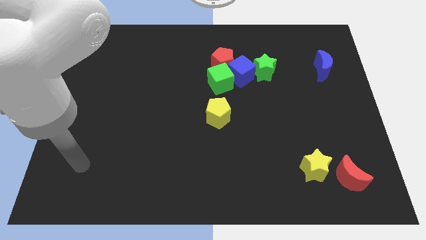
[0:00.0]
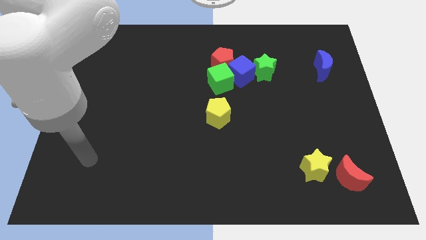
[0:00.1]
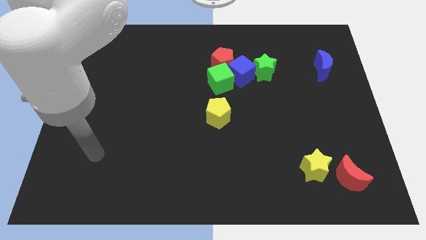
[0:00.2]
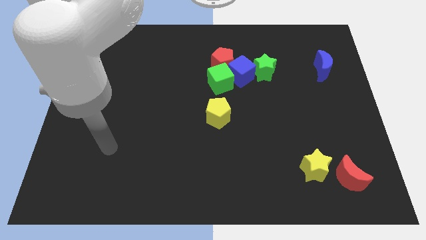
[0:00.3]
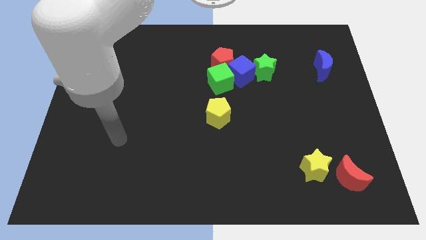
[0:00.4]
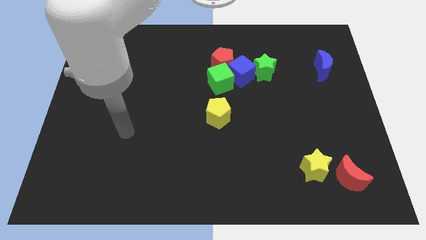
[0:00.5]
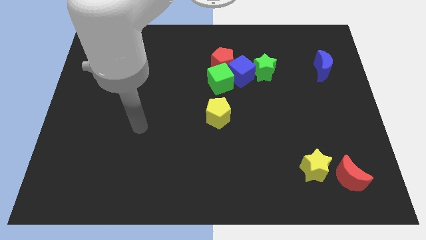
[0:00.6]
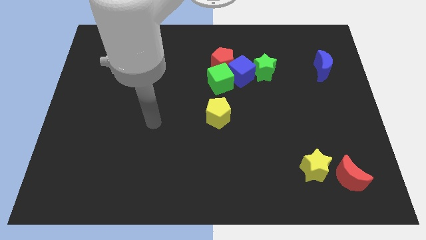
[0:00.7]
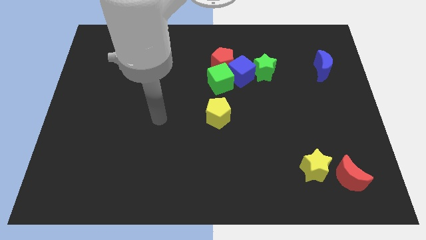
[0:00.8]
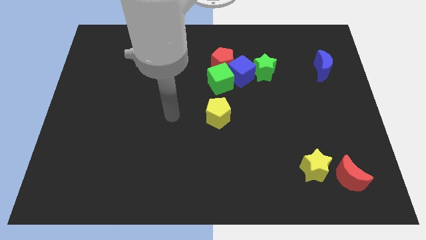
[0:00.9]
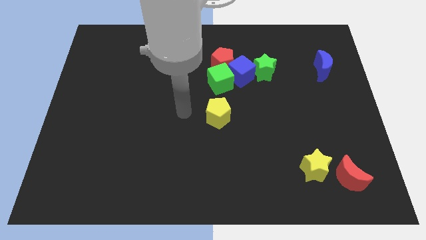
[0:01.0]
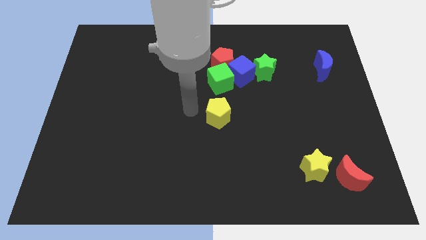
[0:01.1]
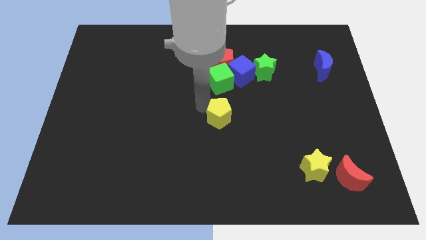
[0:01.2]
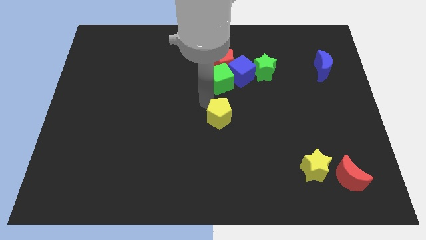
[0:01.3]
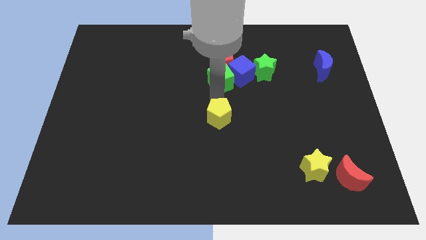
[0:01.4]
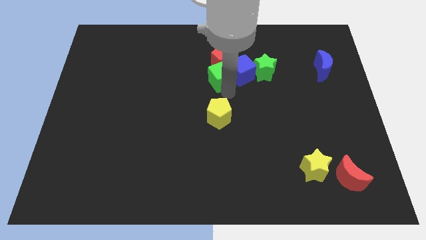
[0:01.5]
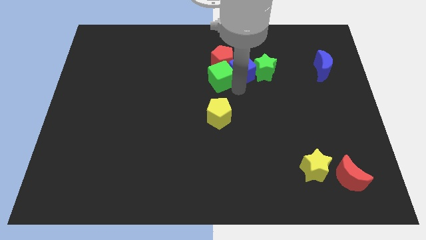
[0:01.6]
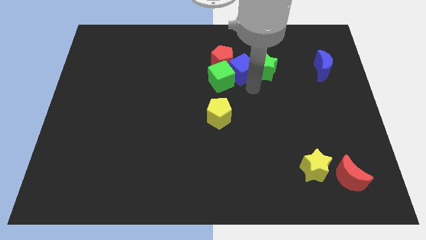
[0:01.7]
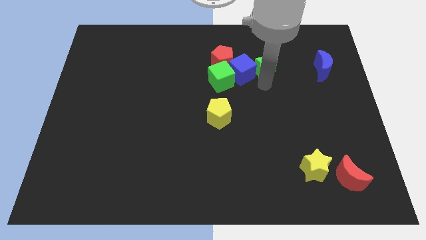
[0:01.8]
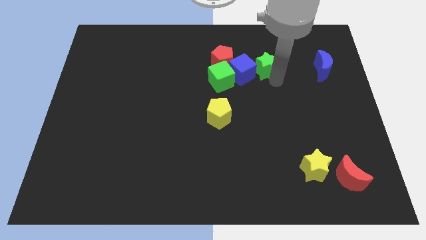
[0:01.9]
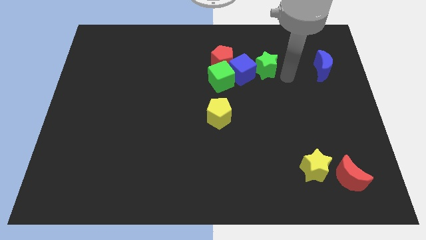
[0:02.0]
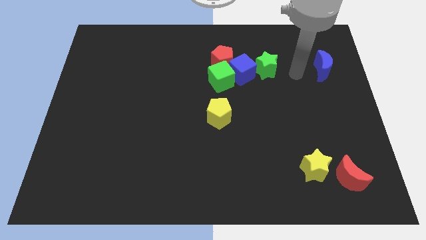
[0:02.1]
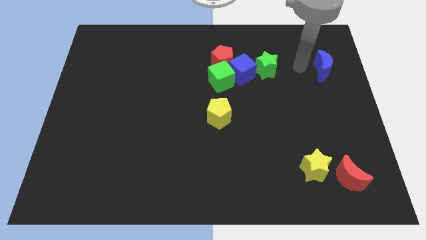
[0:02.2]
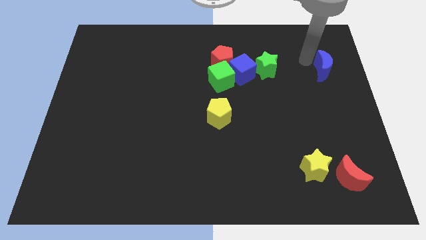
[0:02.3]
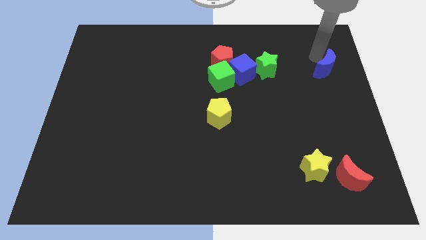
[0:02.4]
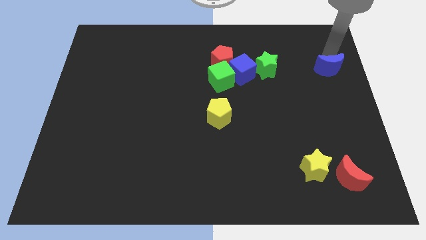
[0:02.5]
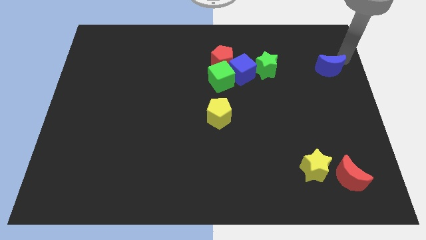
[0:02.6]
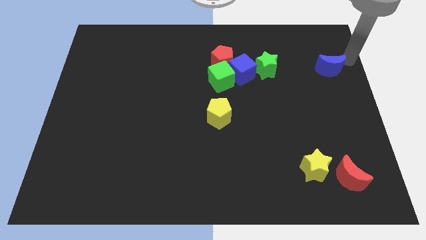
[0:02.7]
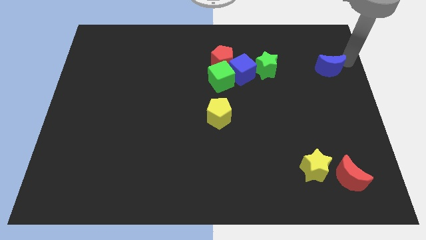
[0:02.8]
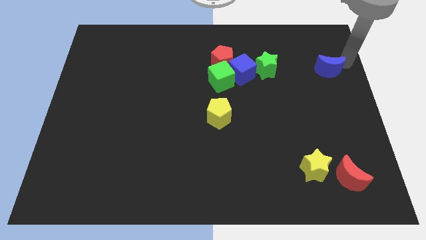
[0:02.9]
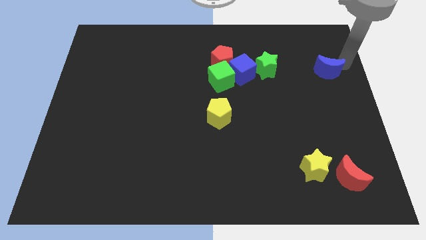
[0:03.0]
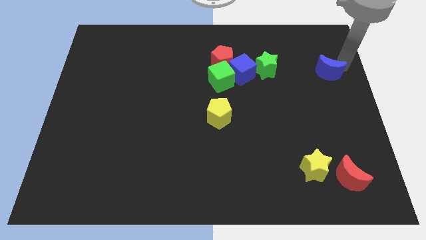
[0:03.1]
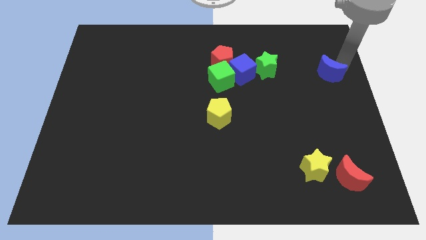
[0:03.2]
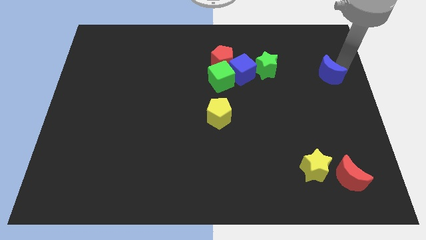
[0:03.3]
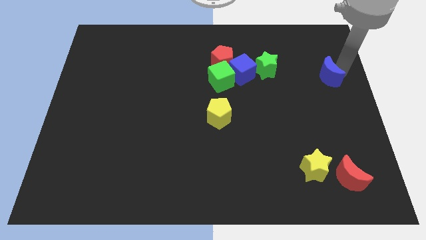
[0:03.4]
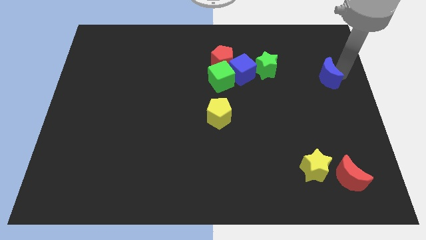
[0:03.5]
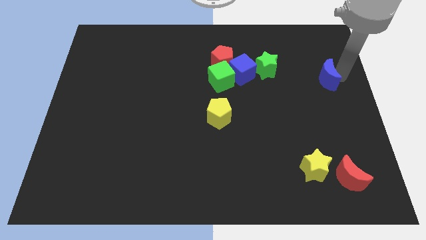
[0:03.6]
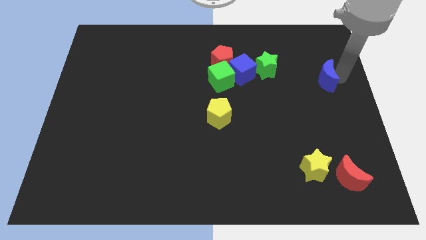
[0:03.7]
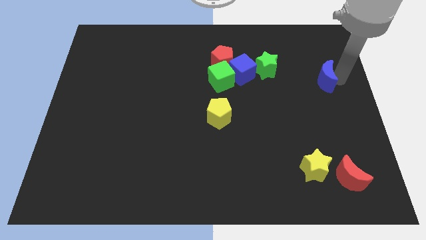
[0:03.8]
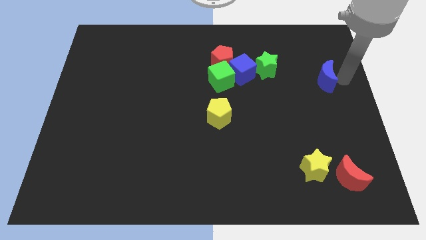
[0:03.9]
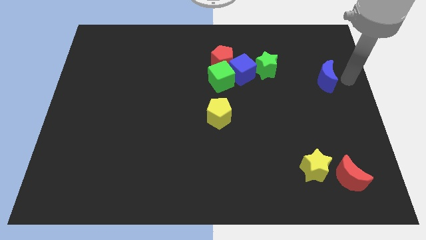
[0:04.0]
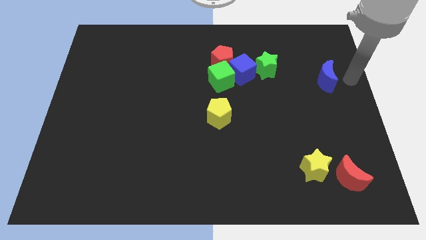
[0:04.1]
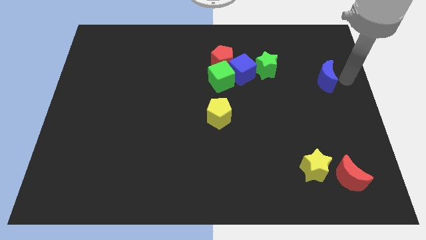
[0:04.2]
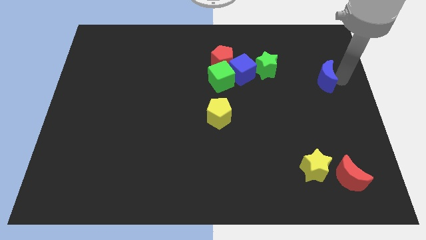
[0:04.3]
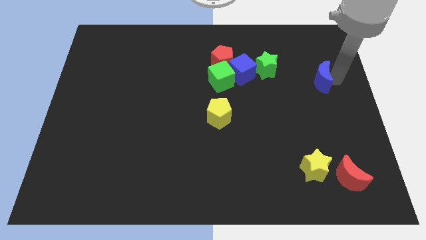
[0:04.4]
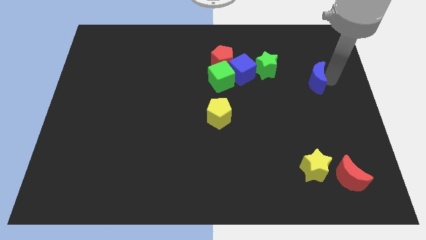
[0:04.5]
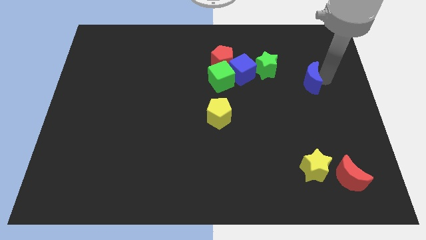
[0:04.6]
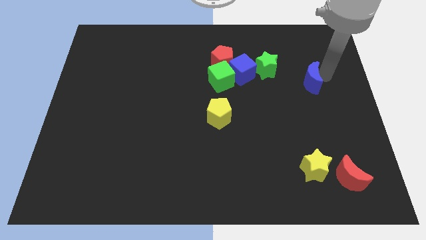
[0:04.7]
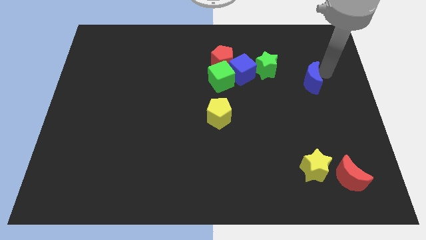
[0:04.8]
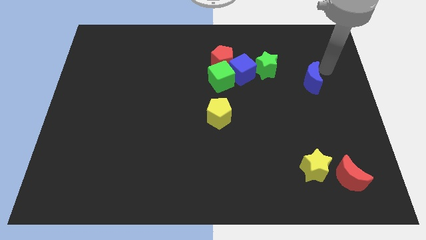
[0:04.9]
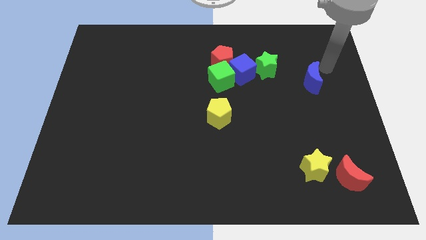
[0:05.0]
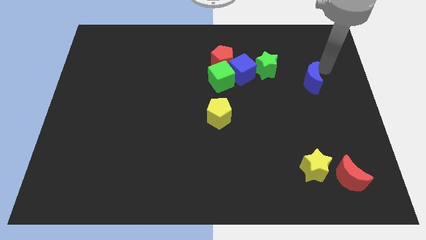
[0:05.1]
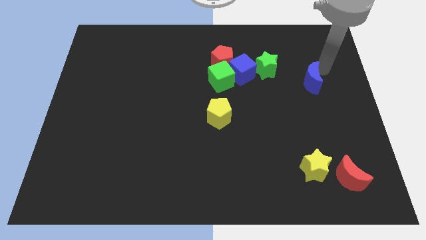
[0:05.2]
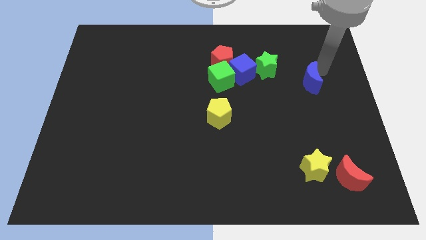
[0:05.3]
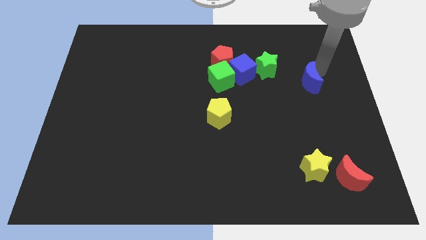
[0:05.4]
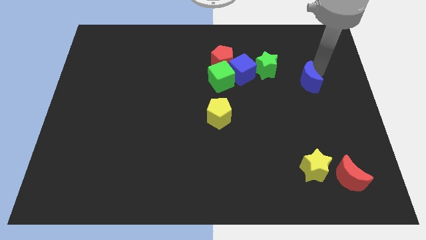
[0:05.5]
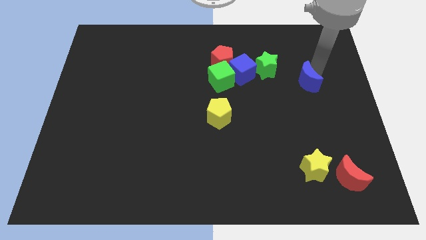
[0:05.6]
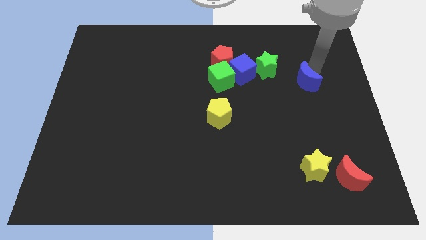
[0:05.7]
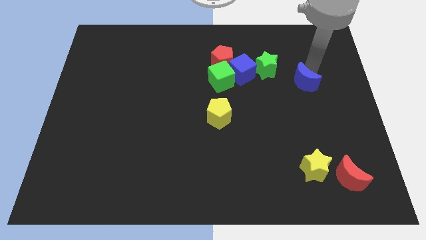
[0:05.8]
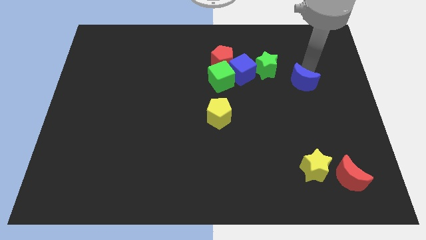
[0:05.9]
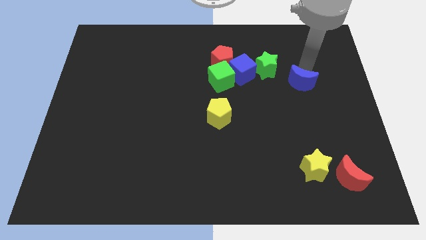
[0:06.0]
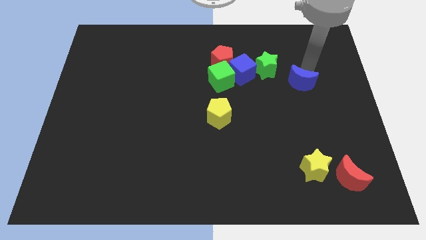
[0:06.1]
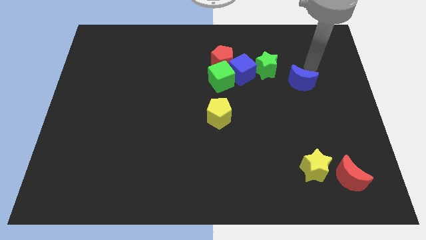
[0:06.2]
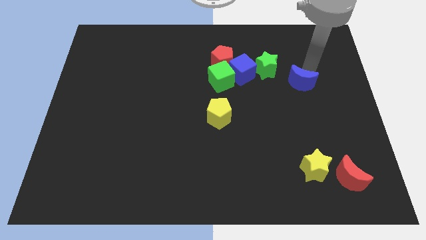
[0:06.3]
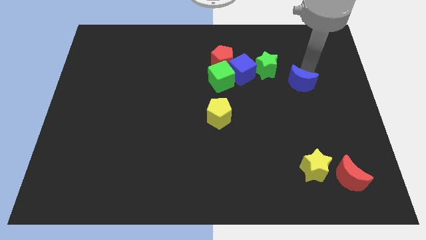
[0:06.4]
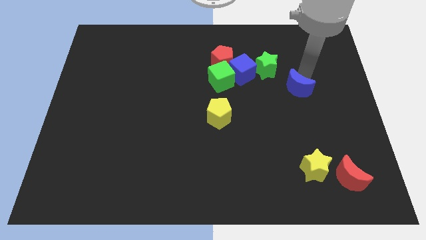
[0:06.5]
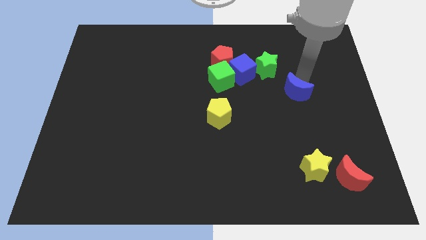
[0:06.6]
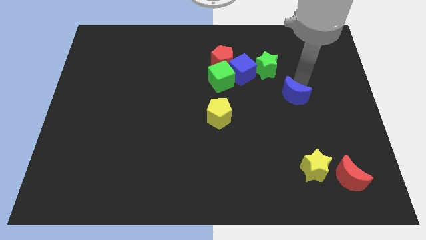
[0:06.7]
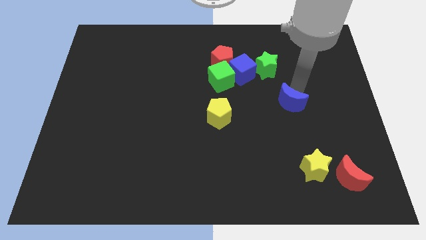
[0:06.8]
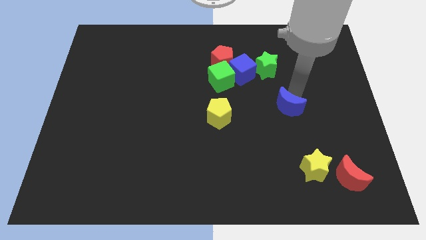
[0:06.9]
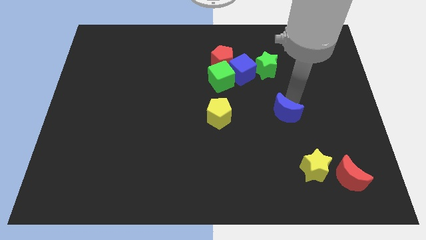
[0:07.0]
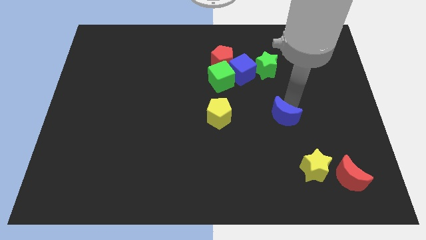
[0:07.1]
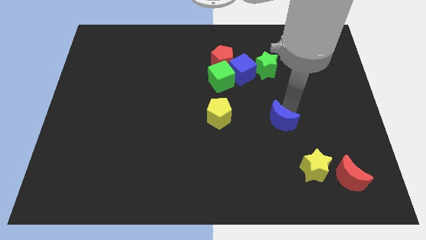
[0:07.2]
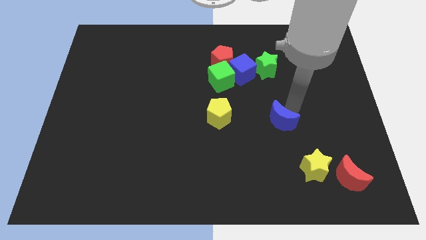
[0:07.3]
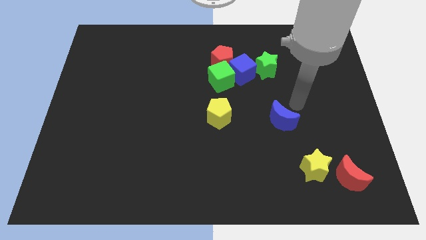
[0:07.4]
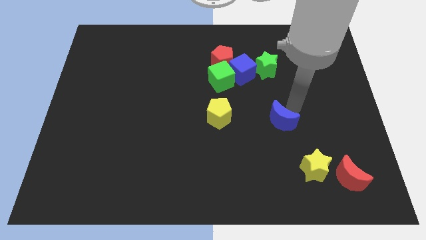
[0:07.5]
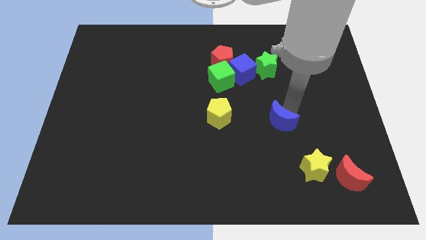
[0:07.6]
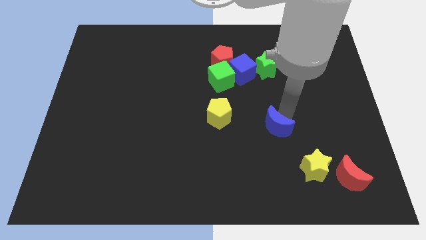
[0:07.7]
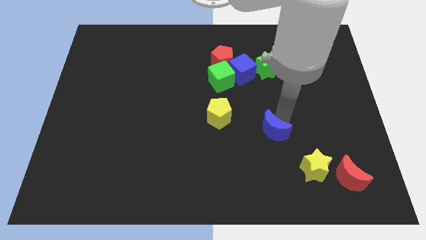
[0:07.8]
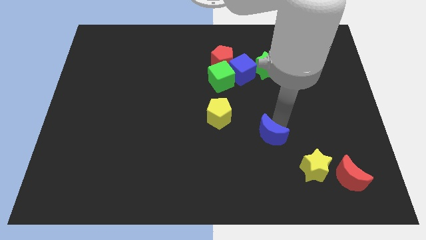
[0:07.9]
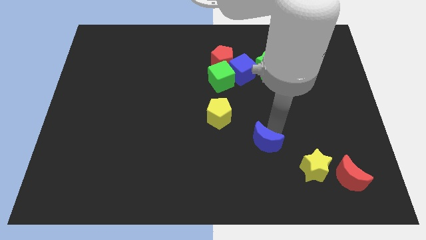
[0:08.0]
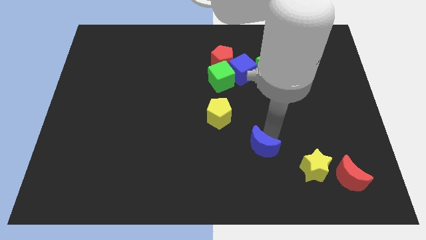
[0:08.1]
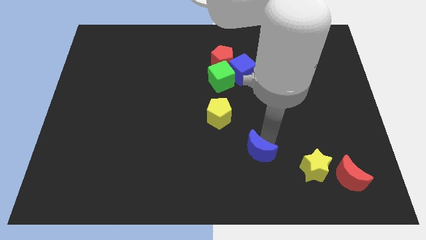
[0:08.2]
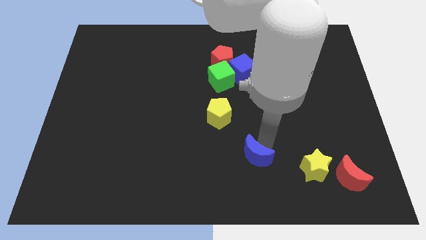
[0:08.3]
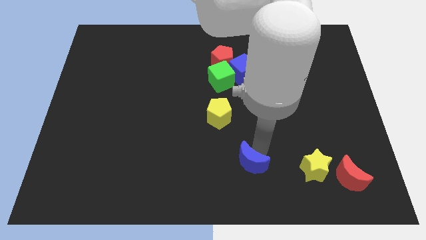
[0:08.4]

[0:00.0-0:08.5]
put the blue moon to the bottom side
